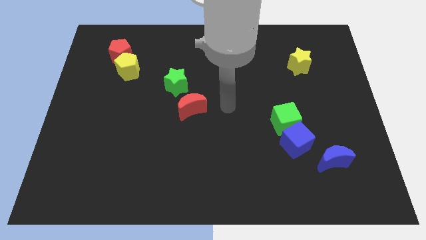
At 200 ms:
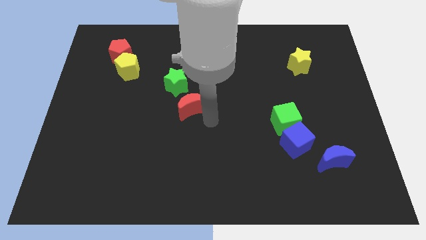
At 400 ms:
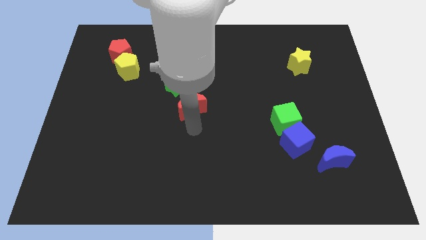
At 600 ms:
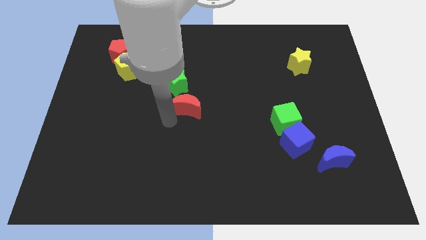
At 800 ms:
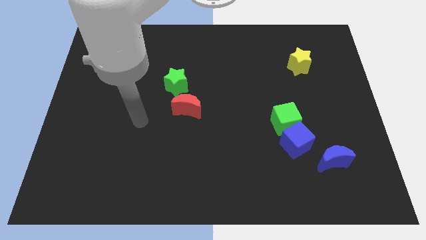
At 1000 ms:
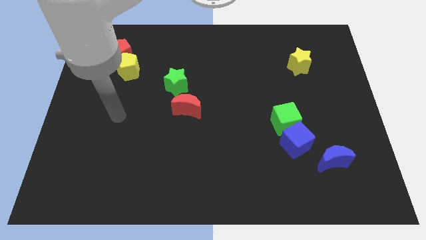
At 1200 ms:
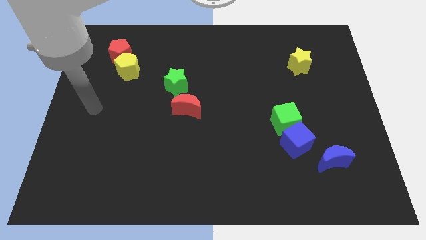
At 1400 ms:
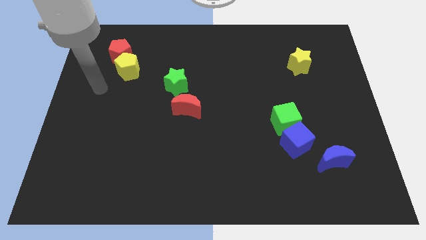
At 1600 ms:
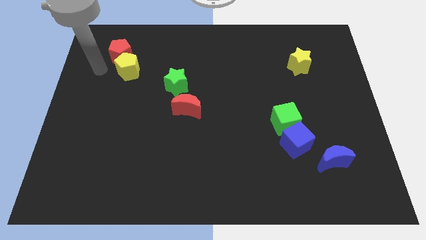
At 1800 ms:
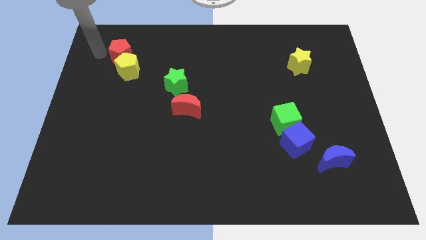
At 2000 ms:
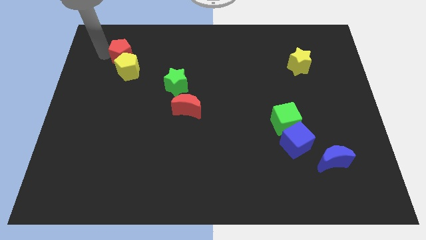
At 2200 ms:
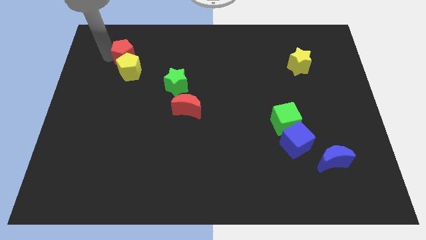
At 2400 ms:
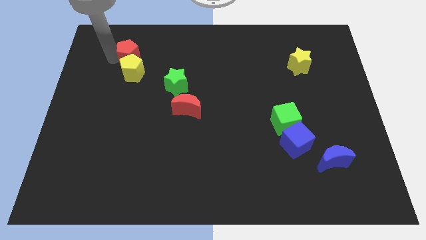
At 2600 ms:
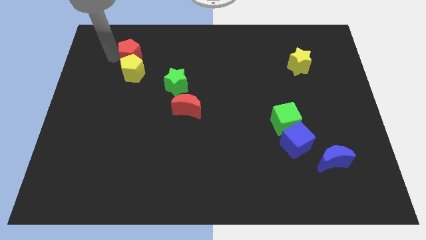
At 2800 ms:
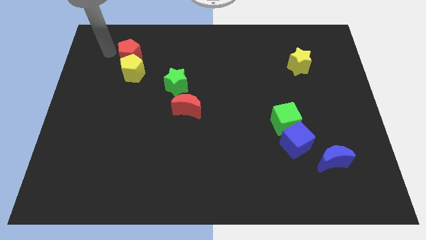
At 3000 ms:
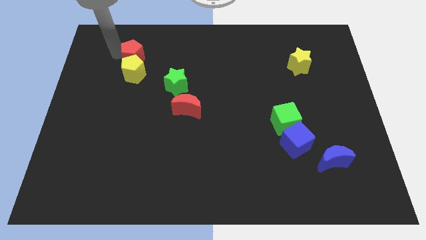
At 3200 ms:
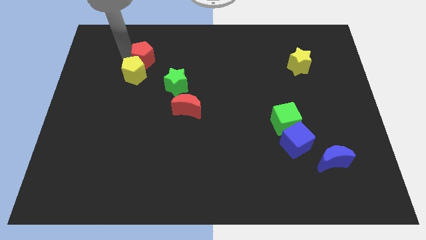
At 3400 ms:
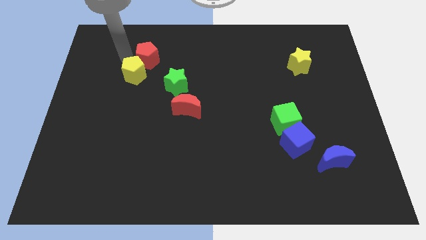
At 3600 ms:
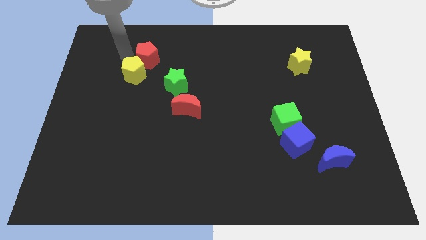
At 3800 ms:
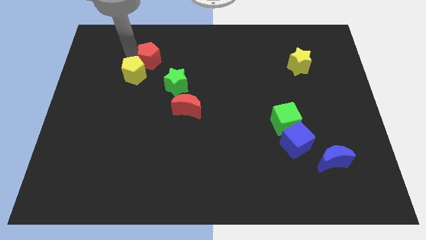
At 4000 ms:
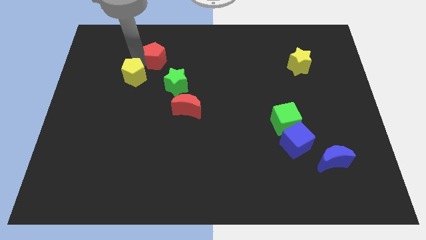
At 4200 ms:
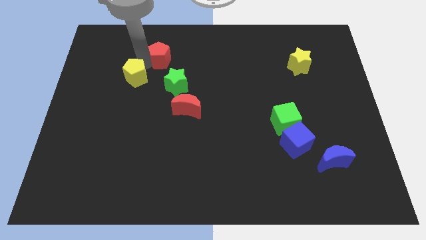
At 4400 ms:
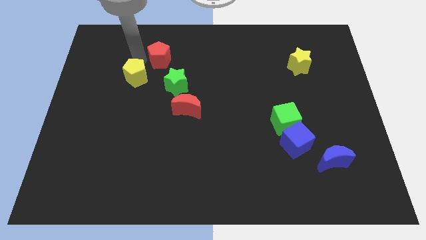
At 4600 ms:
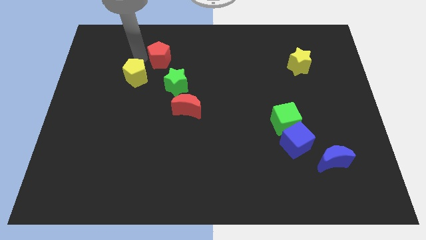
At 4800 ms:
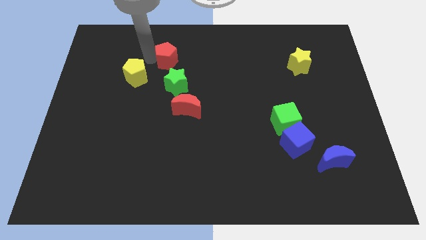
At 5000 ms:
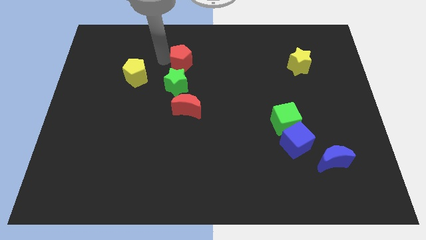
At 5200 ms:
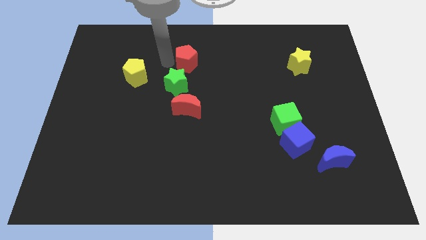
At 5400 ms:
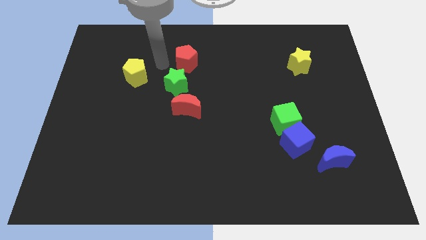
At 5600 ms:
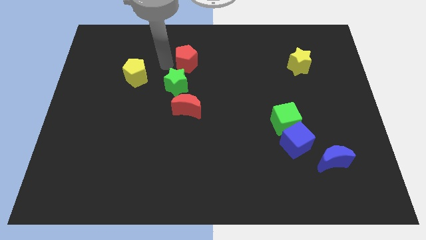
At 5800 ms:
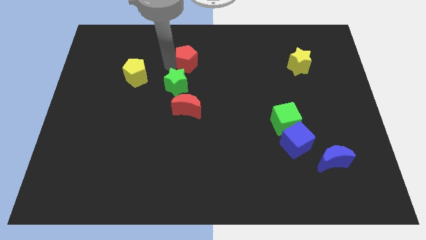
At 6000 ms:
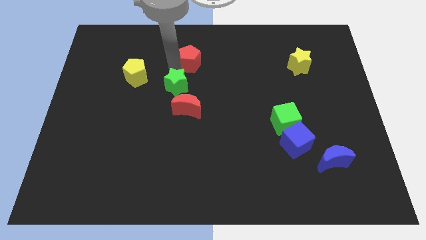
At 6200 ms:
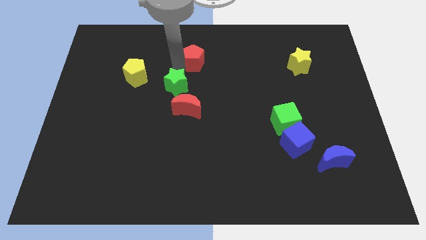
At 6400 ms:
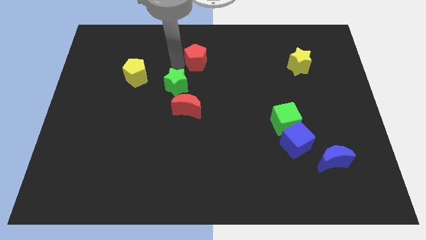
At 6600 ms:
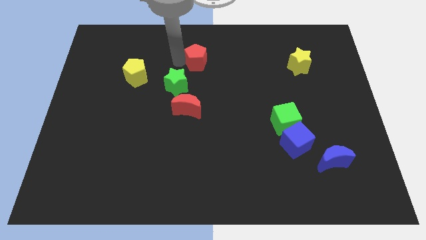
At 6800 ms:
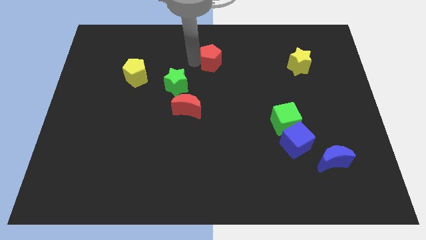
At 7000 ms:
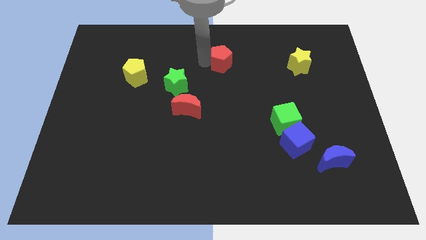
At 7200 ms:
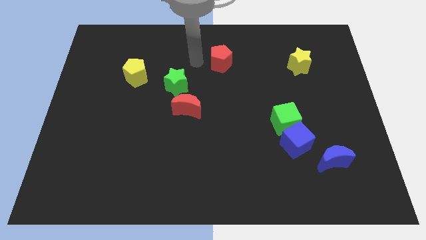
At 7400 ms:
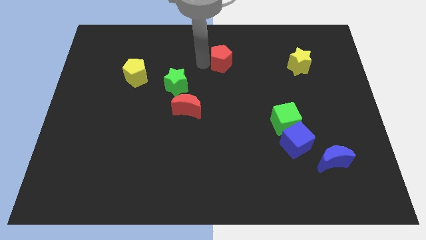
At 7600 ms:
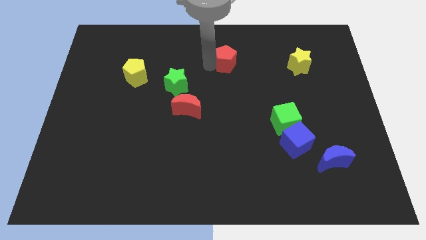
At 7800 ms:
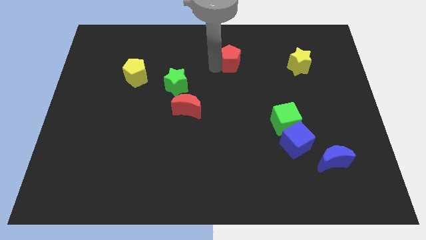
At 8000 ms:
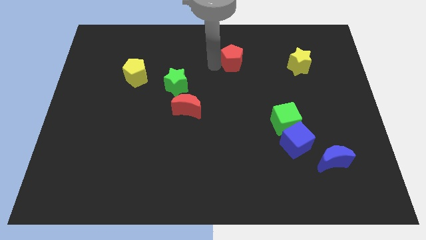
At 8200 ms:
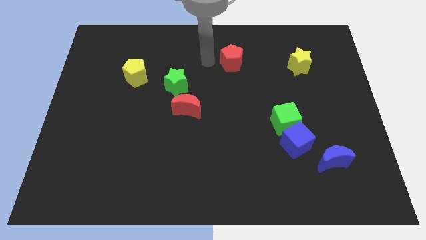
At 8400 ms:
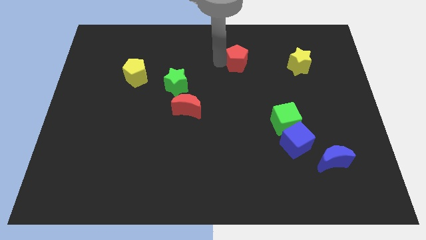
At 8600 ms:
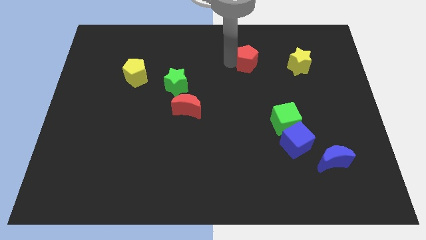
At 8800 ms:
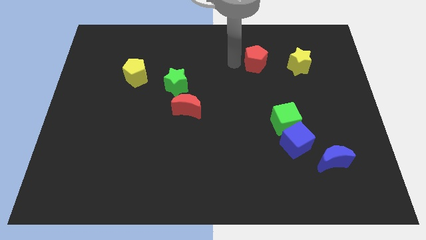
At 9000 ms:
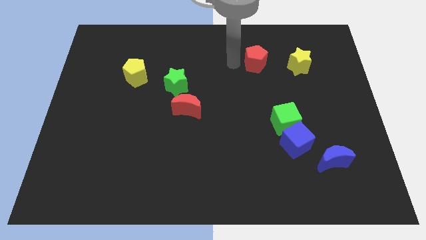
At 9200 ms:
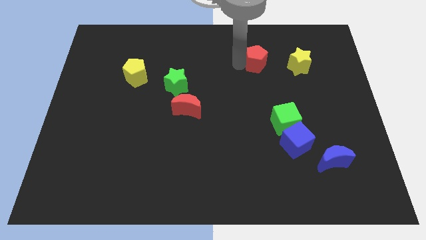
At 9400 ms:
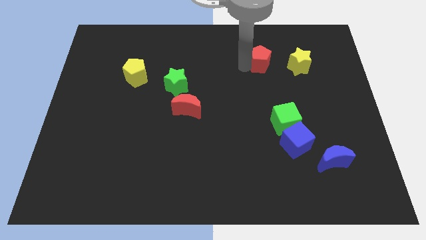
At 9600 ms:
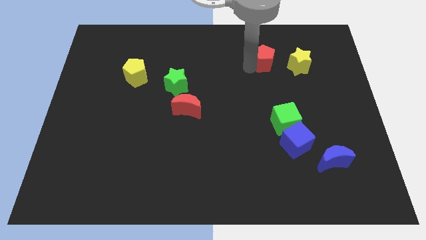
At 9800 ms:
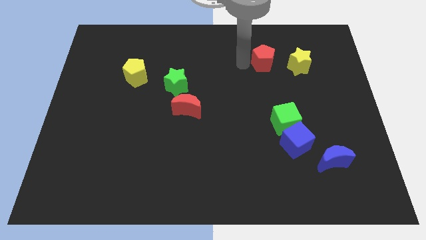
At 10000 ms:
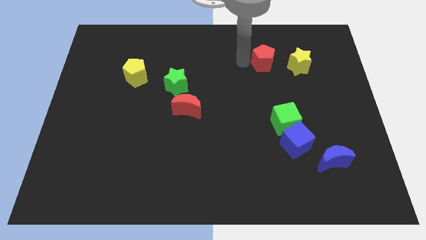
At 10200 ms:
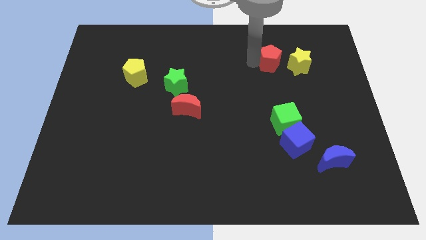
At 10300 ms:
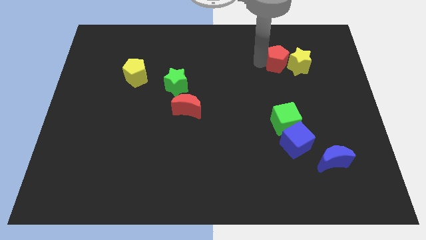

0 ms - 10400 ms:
put the red pentagon next to the yellow star

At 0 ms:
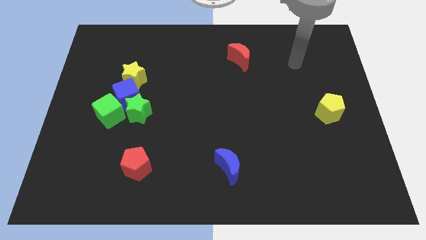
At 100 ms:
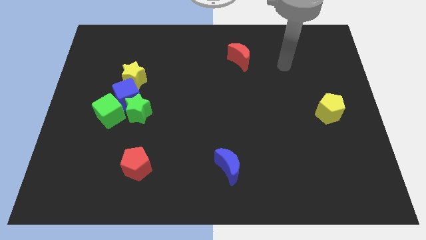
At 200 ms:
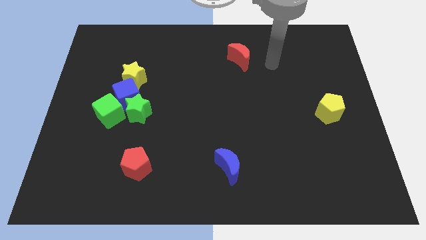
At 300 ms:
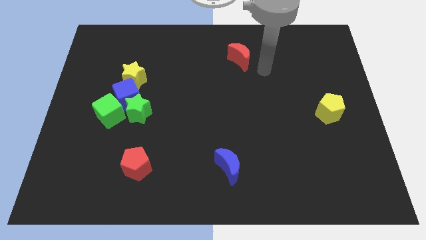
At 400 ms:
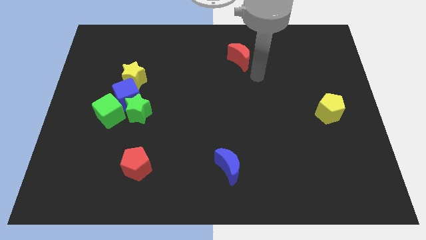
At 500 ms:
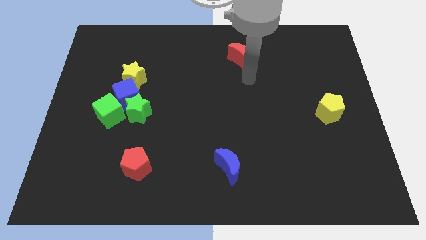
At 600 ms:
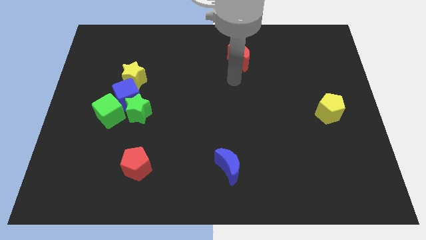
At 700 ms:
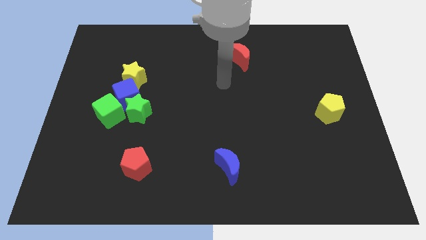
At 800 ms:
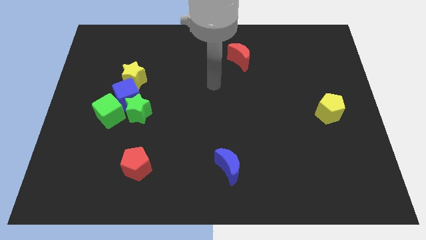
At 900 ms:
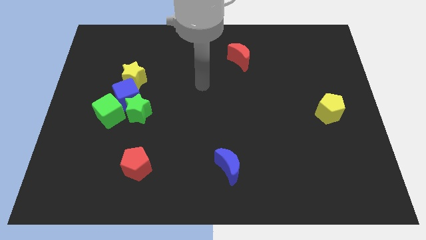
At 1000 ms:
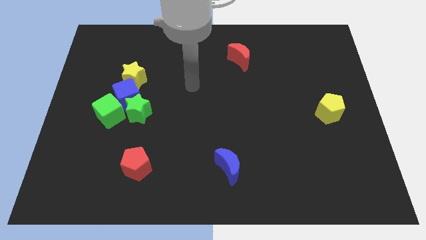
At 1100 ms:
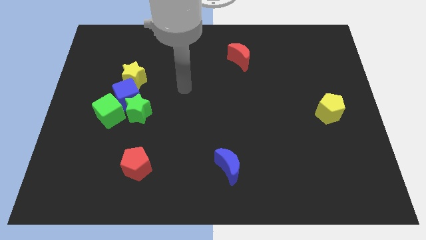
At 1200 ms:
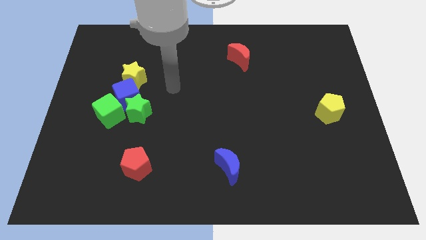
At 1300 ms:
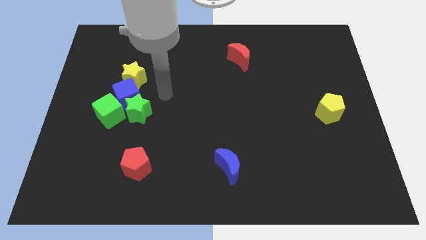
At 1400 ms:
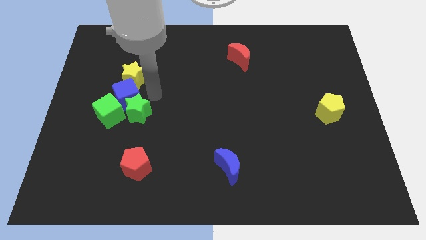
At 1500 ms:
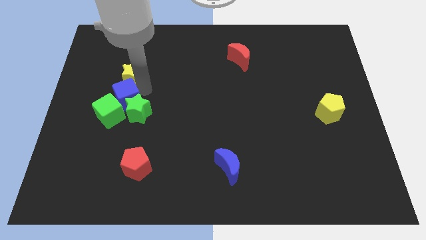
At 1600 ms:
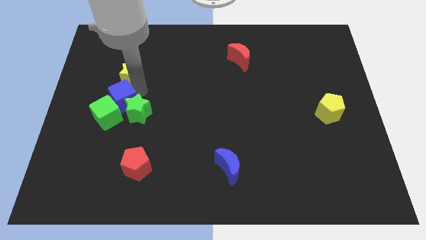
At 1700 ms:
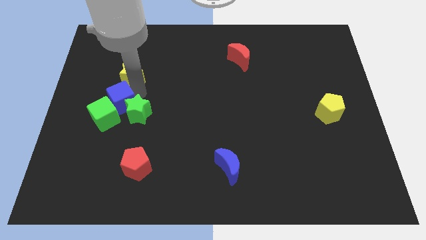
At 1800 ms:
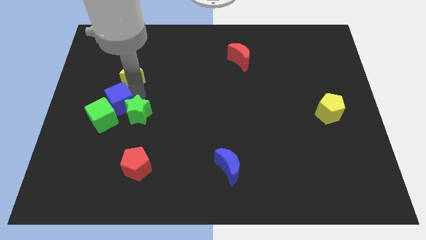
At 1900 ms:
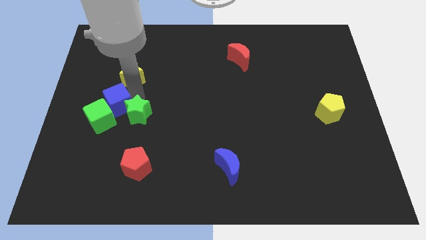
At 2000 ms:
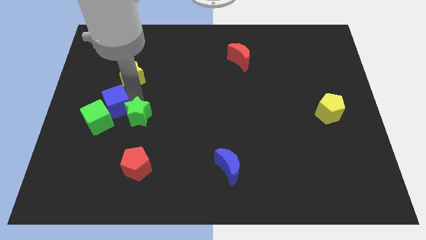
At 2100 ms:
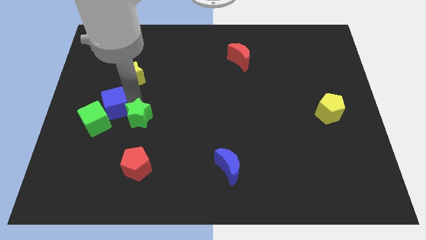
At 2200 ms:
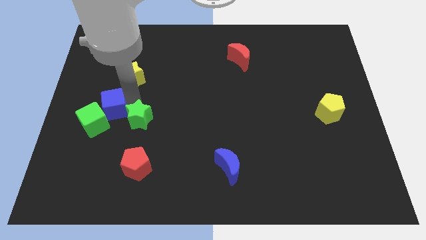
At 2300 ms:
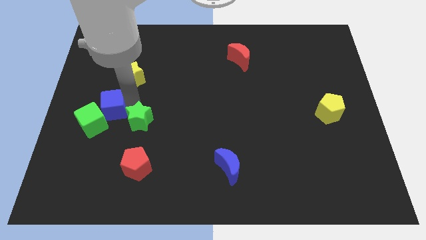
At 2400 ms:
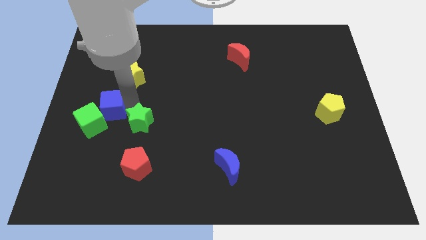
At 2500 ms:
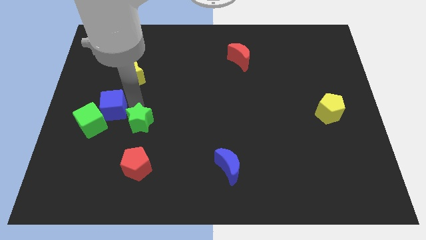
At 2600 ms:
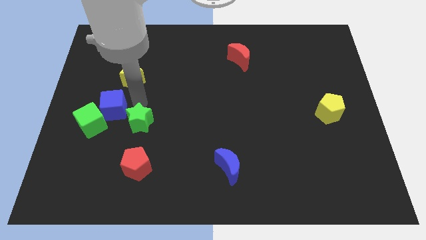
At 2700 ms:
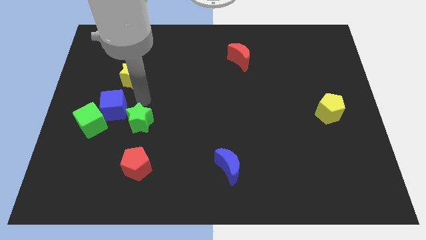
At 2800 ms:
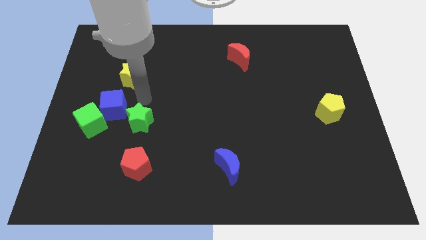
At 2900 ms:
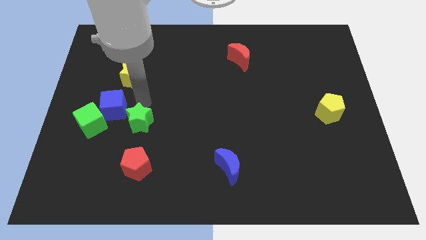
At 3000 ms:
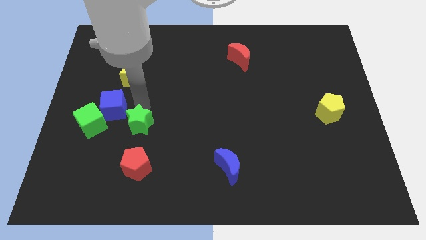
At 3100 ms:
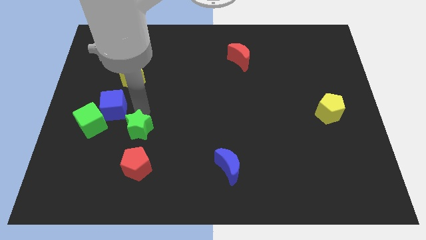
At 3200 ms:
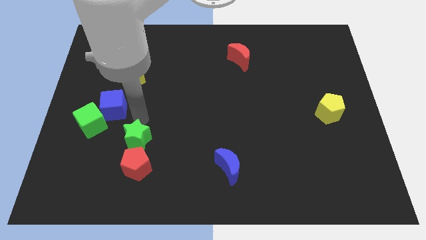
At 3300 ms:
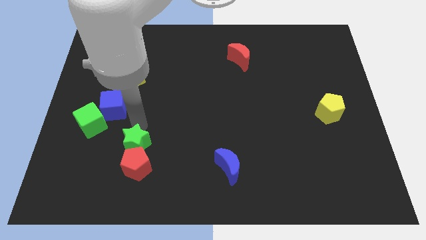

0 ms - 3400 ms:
slide the green star to the red pentagon
